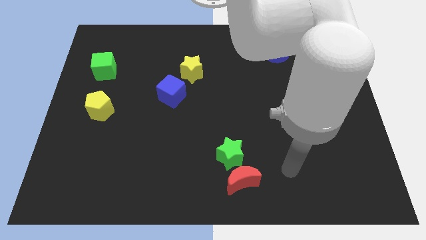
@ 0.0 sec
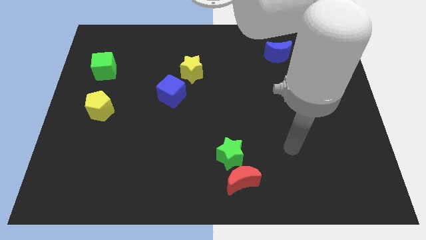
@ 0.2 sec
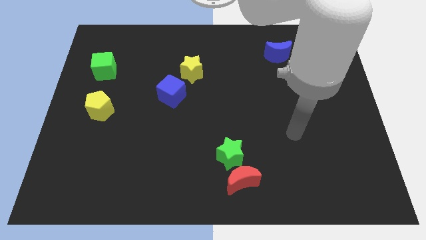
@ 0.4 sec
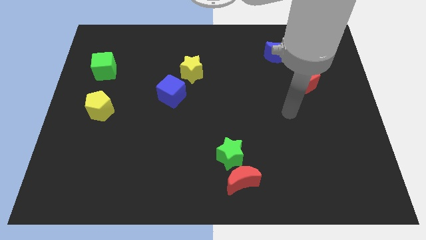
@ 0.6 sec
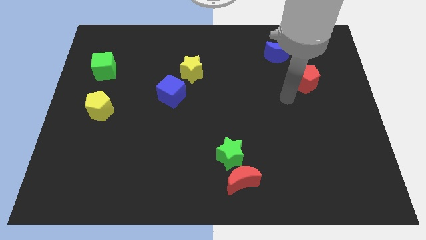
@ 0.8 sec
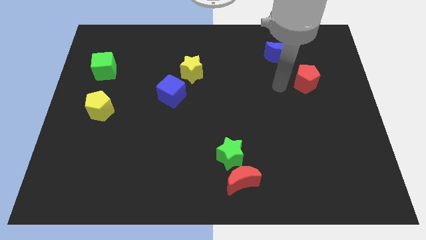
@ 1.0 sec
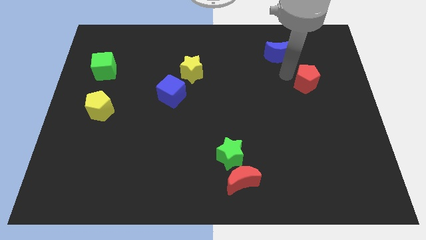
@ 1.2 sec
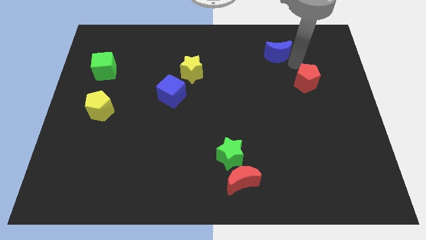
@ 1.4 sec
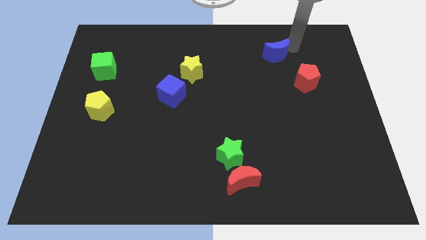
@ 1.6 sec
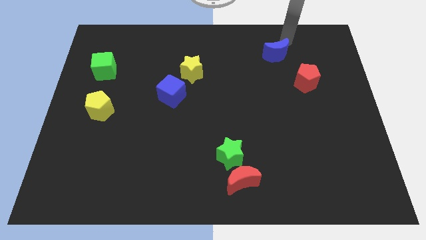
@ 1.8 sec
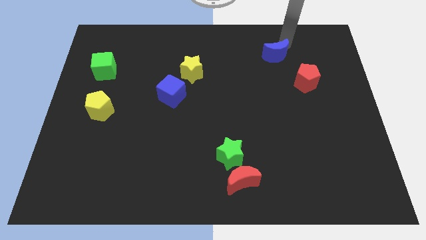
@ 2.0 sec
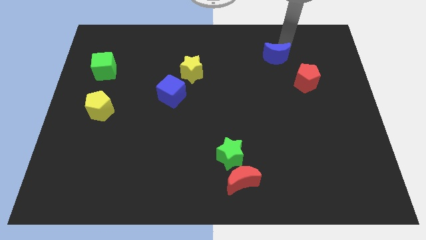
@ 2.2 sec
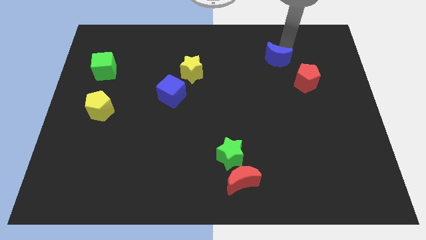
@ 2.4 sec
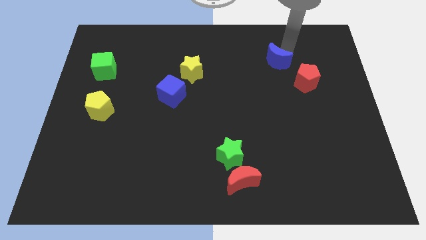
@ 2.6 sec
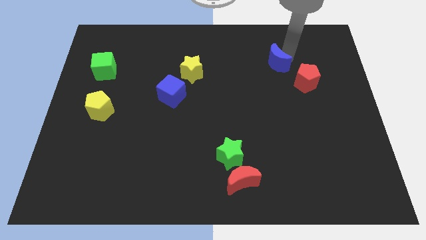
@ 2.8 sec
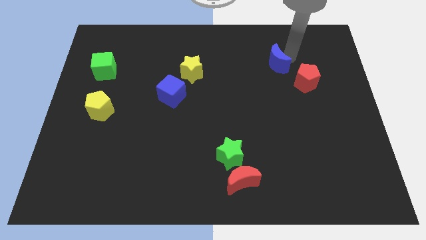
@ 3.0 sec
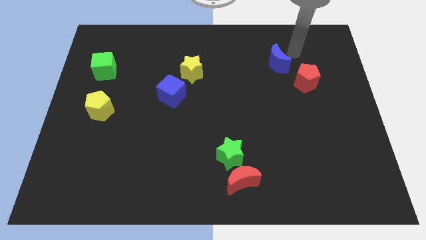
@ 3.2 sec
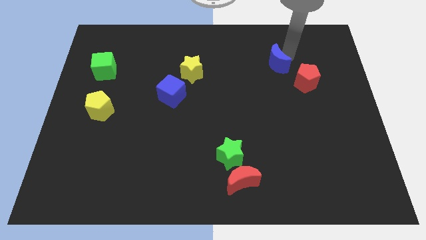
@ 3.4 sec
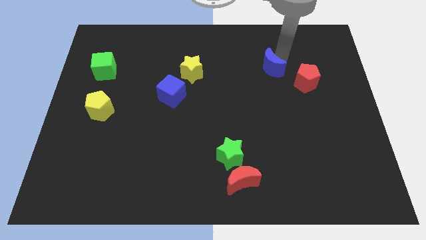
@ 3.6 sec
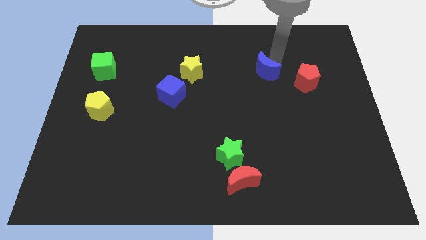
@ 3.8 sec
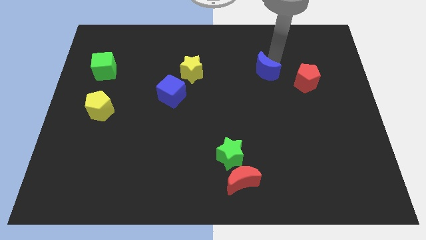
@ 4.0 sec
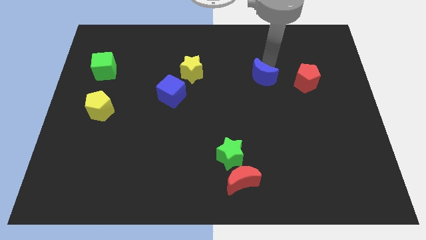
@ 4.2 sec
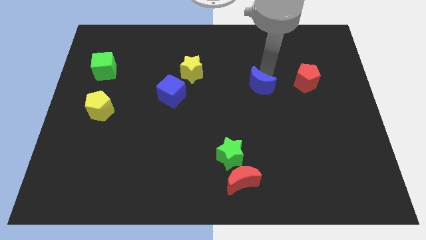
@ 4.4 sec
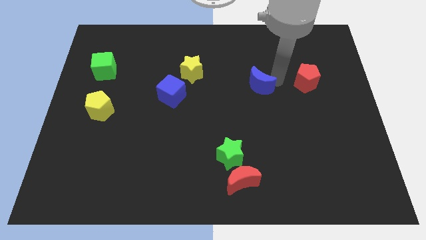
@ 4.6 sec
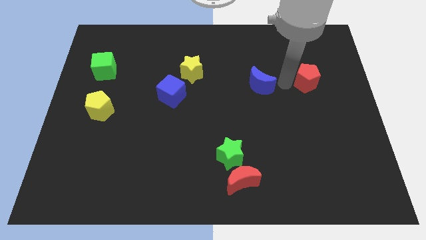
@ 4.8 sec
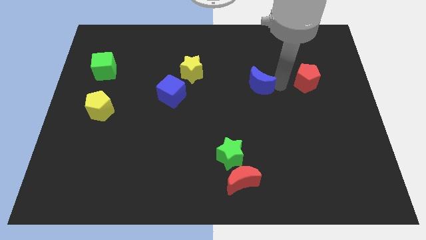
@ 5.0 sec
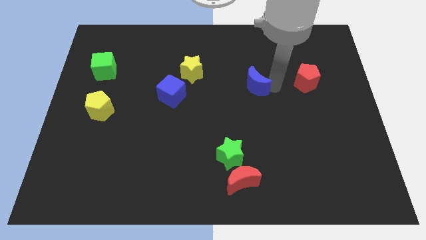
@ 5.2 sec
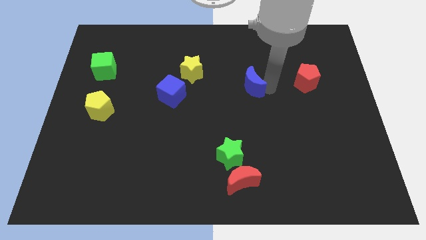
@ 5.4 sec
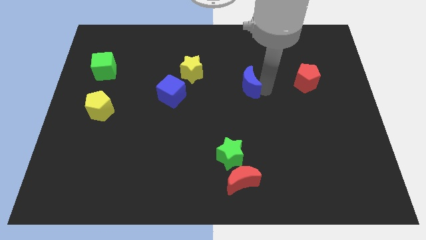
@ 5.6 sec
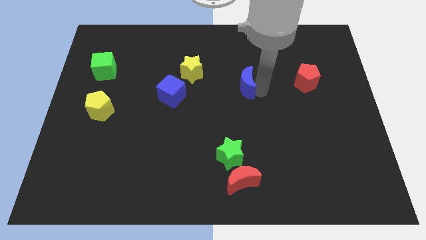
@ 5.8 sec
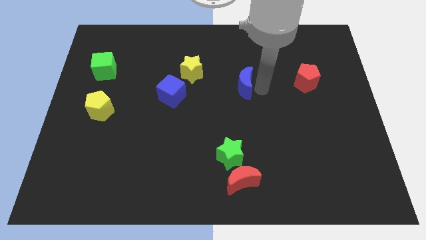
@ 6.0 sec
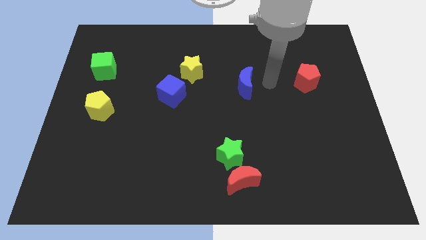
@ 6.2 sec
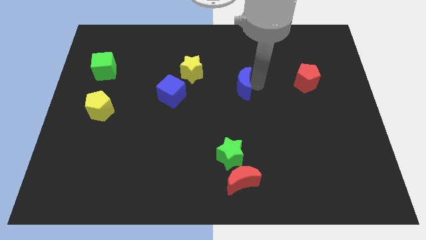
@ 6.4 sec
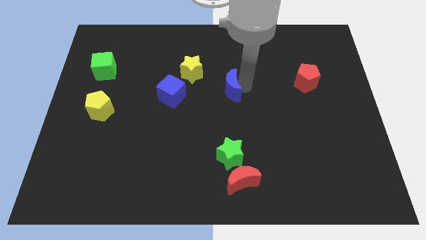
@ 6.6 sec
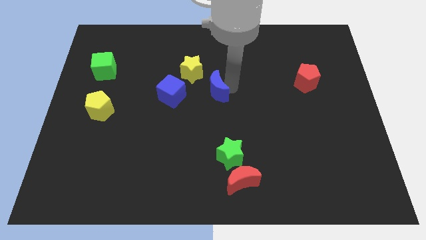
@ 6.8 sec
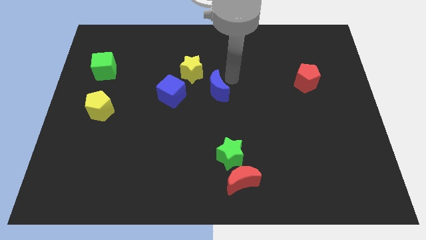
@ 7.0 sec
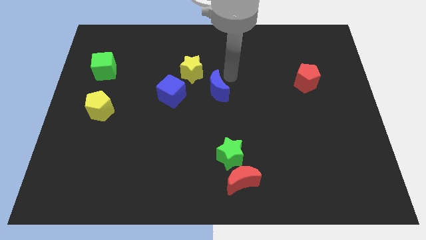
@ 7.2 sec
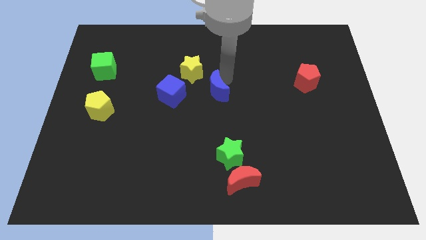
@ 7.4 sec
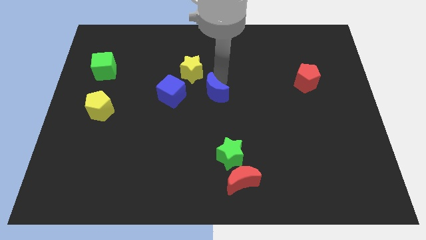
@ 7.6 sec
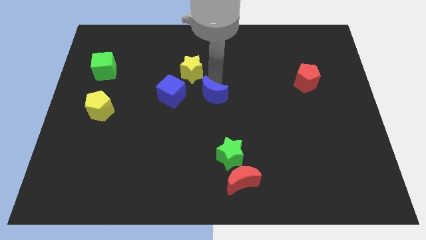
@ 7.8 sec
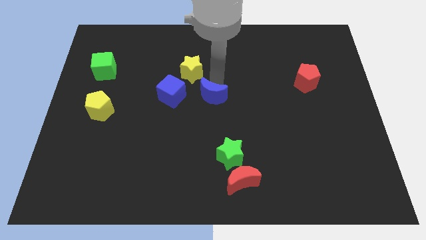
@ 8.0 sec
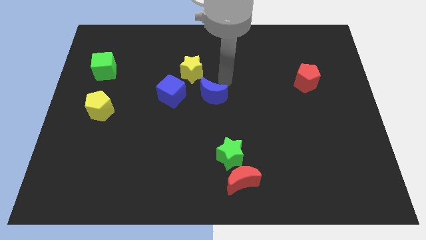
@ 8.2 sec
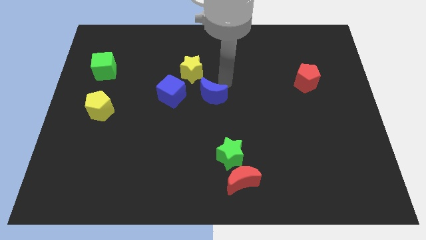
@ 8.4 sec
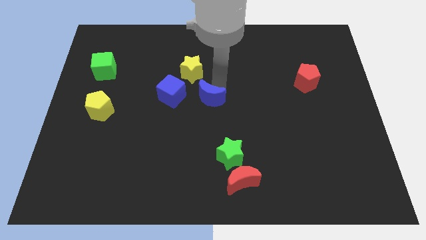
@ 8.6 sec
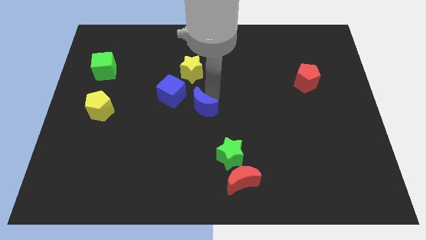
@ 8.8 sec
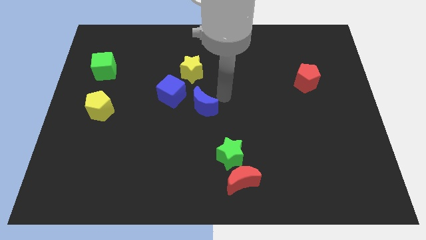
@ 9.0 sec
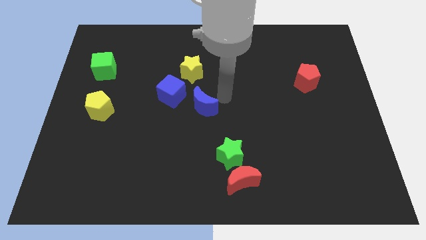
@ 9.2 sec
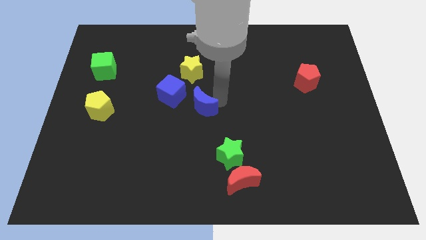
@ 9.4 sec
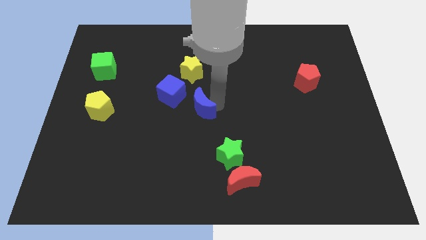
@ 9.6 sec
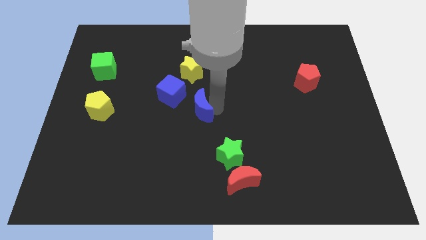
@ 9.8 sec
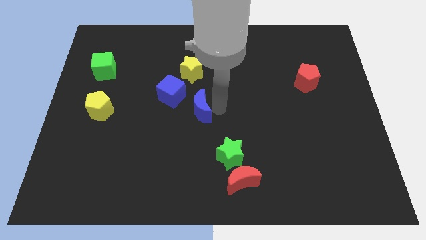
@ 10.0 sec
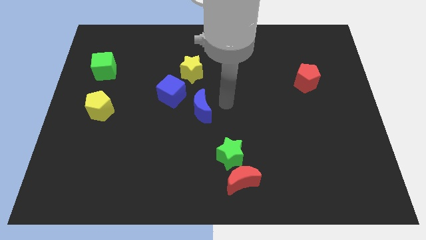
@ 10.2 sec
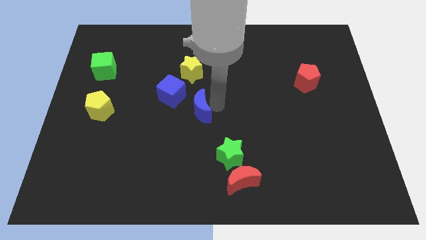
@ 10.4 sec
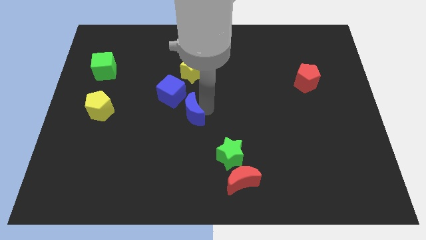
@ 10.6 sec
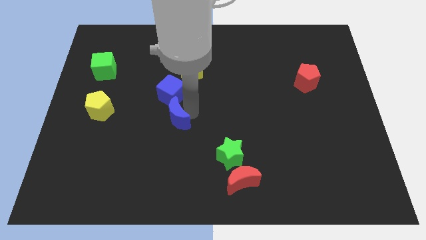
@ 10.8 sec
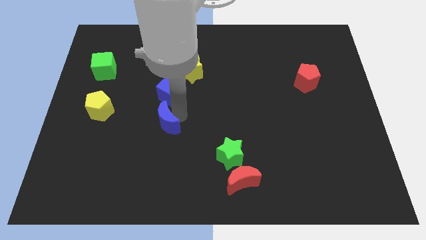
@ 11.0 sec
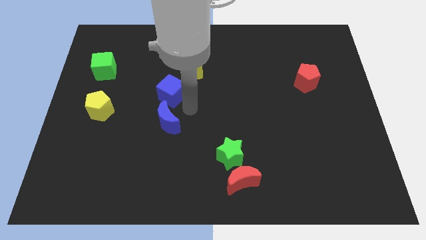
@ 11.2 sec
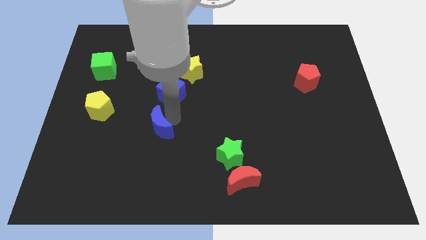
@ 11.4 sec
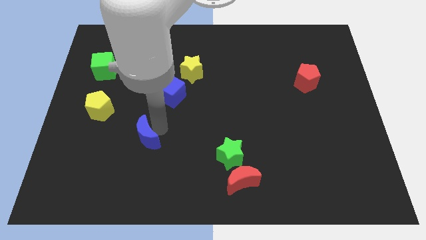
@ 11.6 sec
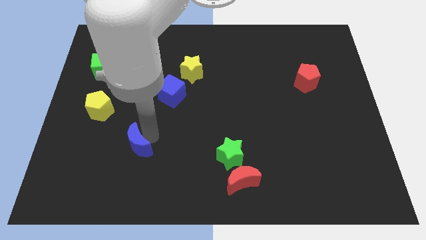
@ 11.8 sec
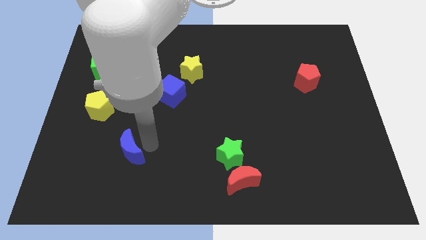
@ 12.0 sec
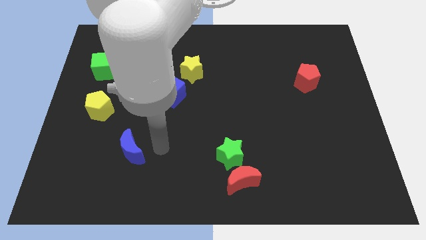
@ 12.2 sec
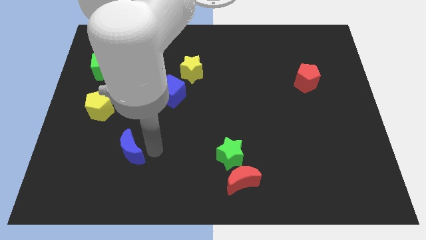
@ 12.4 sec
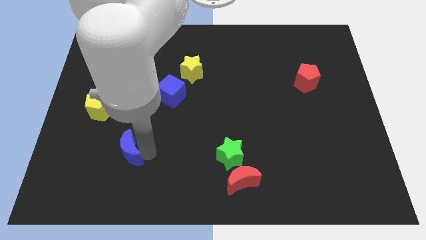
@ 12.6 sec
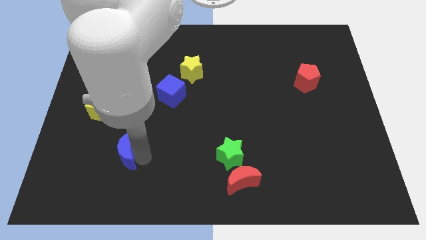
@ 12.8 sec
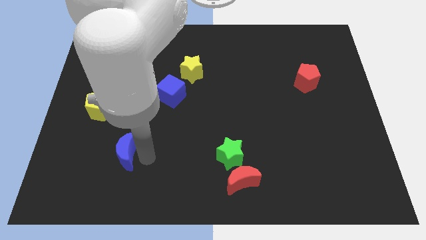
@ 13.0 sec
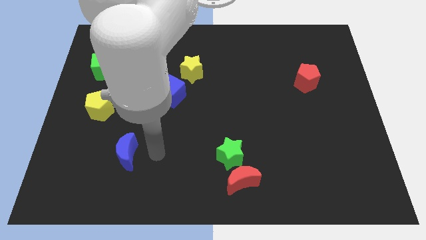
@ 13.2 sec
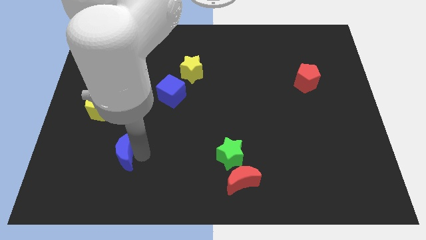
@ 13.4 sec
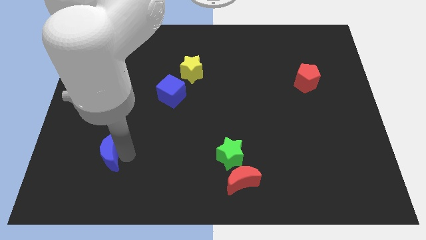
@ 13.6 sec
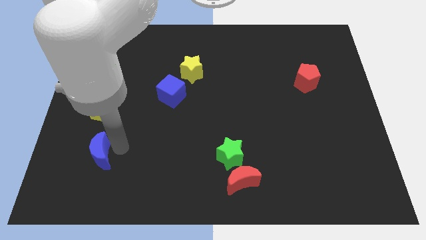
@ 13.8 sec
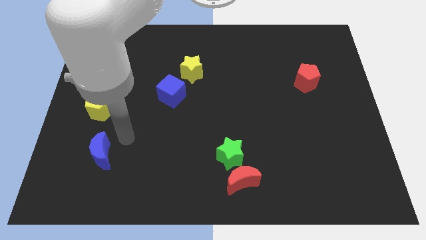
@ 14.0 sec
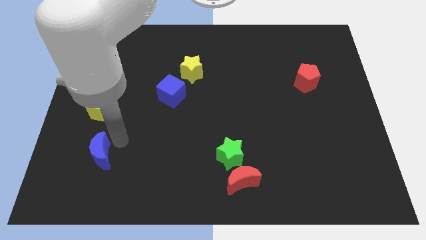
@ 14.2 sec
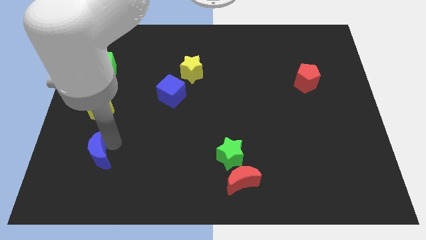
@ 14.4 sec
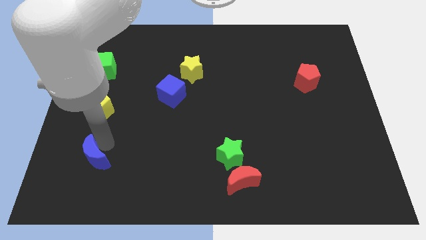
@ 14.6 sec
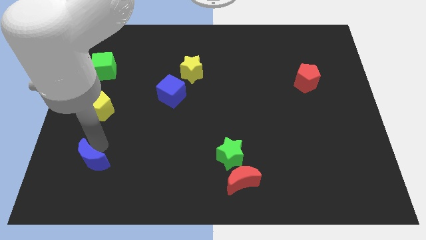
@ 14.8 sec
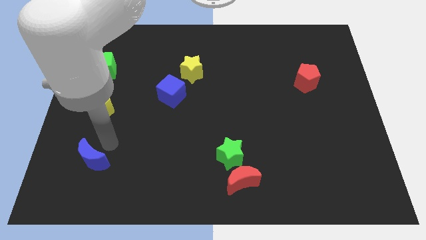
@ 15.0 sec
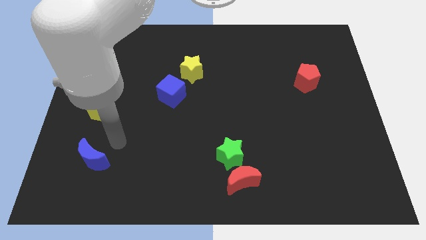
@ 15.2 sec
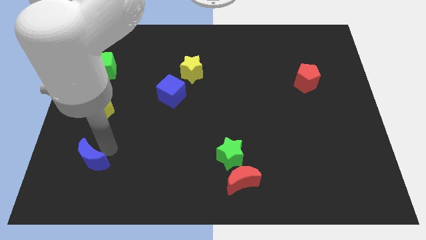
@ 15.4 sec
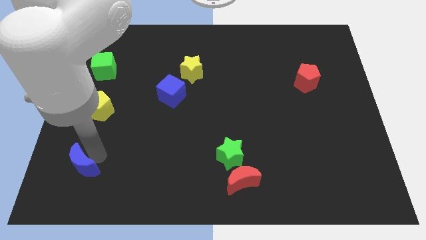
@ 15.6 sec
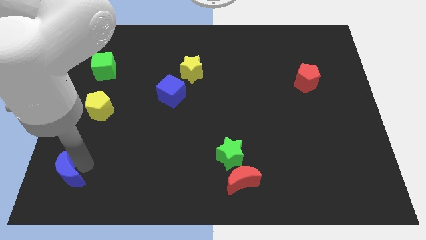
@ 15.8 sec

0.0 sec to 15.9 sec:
move the blue moon to the bottom left
